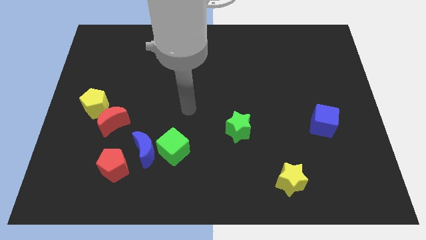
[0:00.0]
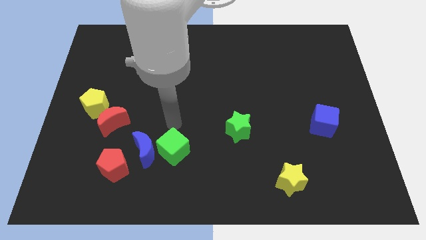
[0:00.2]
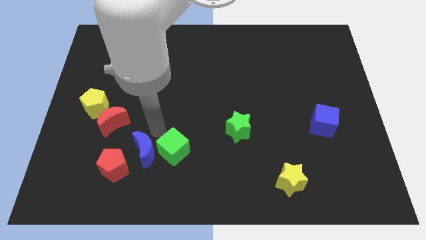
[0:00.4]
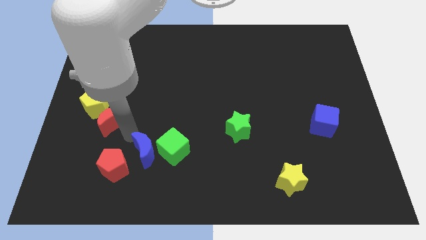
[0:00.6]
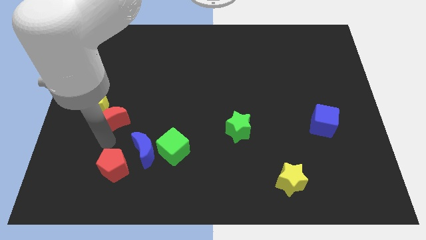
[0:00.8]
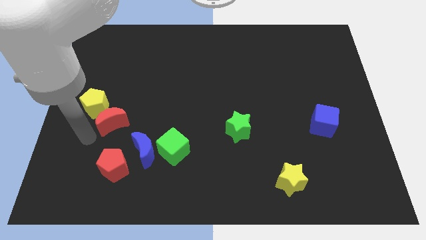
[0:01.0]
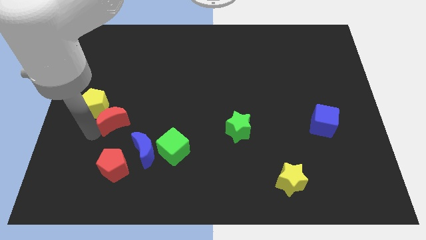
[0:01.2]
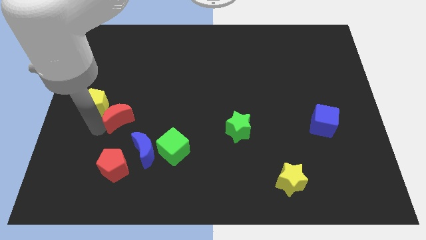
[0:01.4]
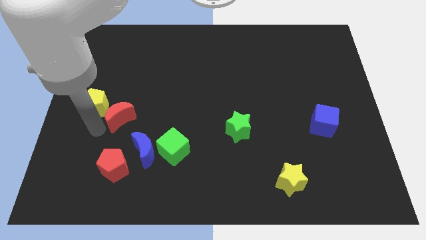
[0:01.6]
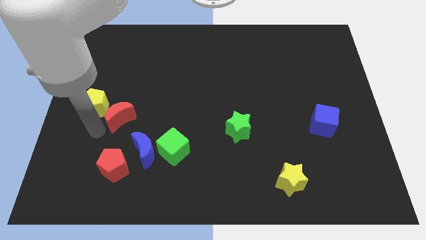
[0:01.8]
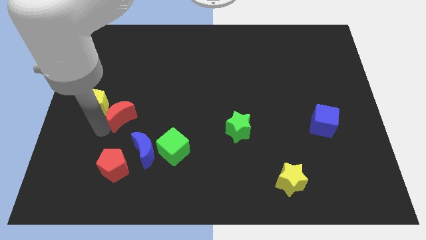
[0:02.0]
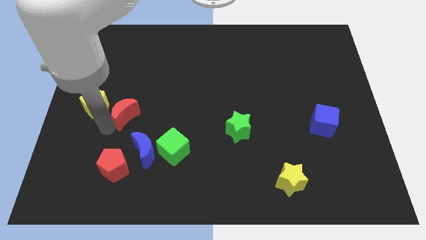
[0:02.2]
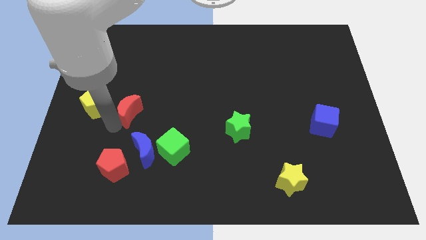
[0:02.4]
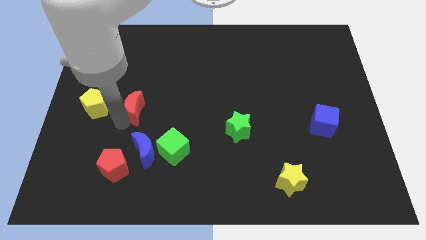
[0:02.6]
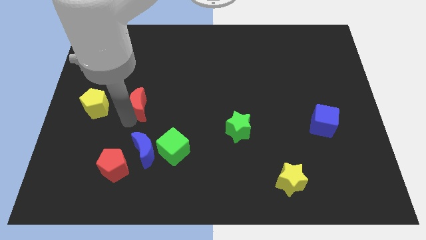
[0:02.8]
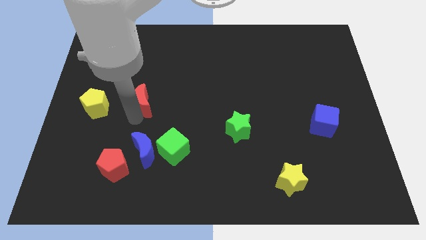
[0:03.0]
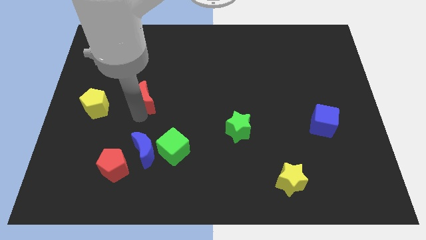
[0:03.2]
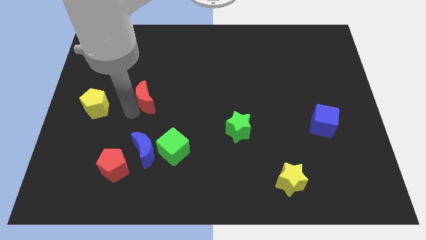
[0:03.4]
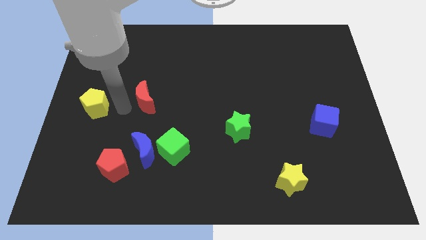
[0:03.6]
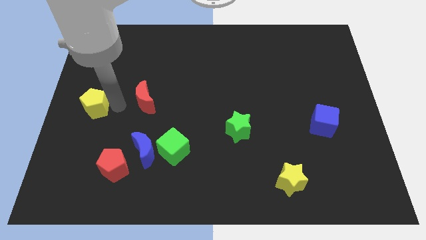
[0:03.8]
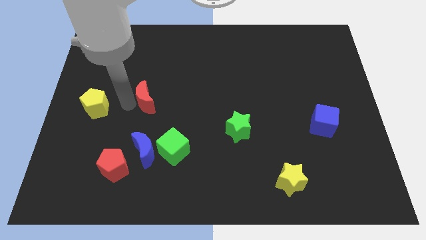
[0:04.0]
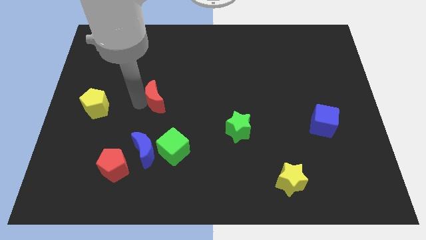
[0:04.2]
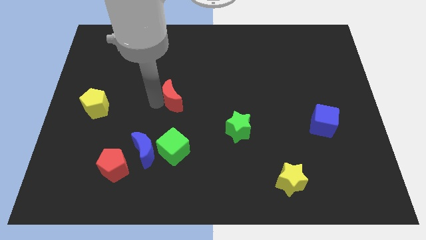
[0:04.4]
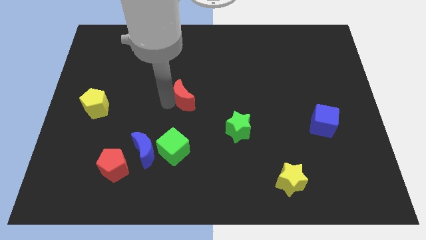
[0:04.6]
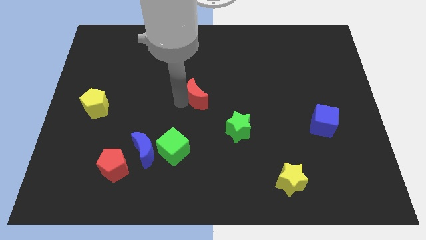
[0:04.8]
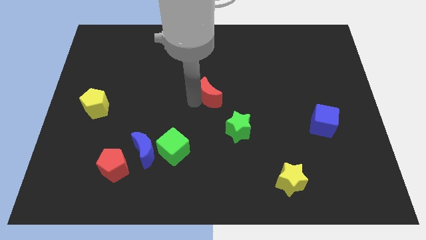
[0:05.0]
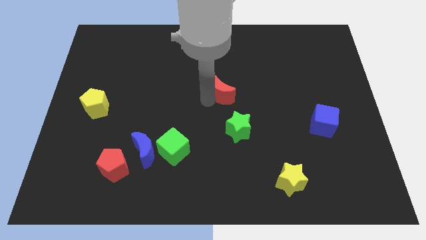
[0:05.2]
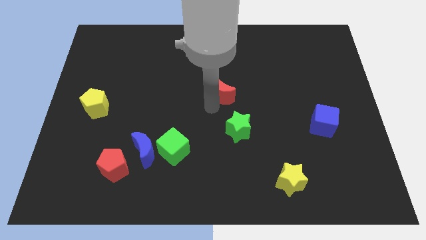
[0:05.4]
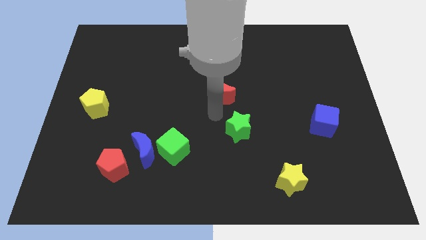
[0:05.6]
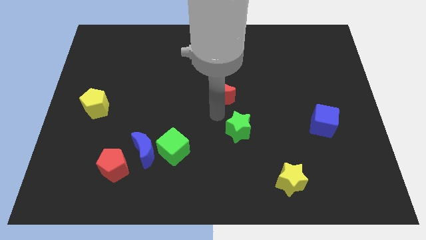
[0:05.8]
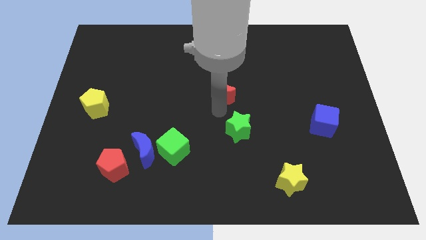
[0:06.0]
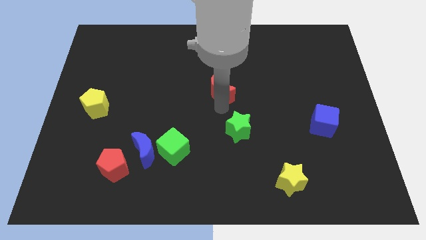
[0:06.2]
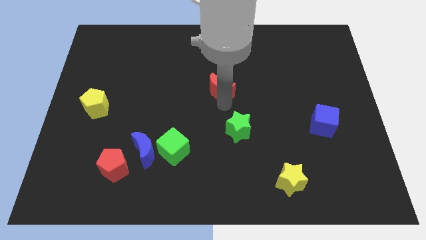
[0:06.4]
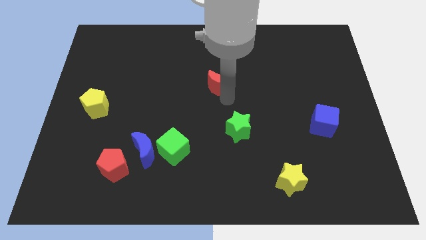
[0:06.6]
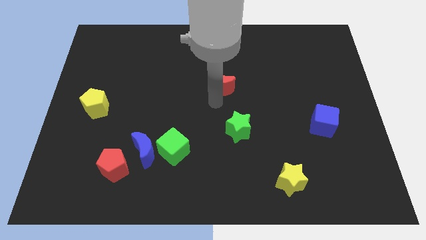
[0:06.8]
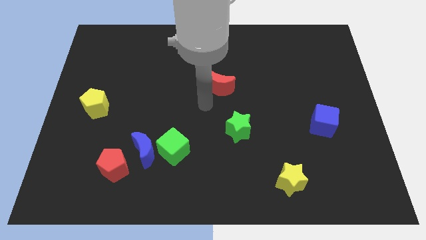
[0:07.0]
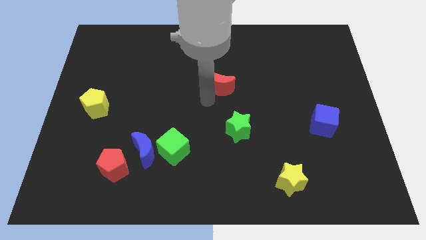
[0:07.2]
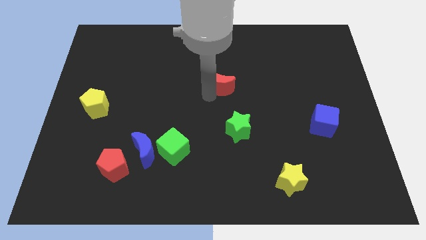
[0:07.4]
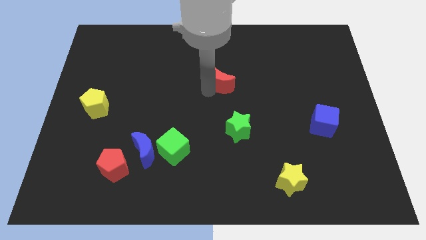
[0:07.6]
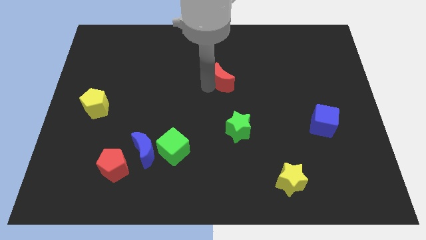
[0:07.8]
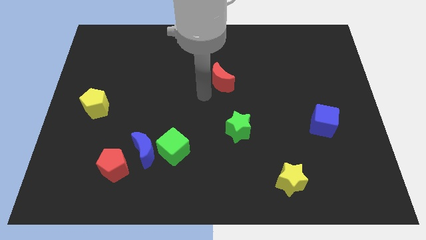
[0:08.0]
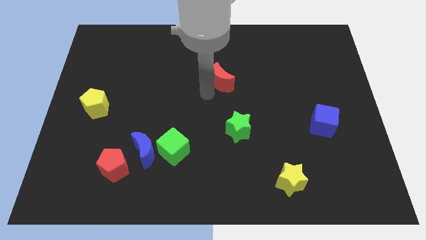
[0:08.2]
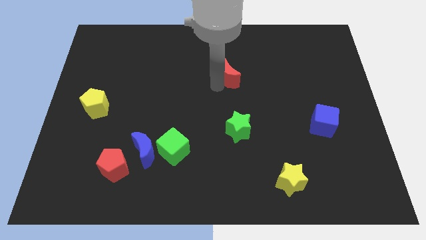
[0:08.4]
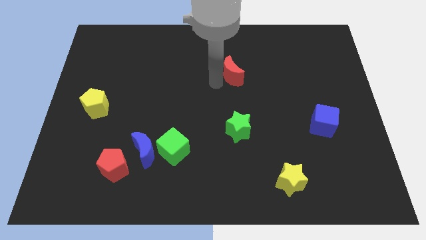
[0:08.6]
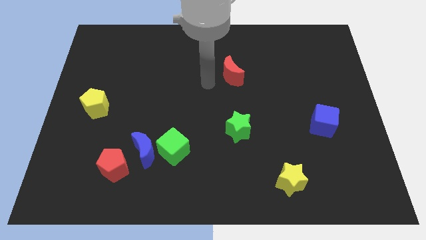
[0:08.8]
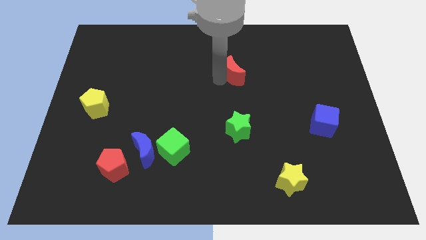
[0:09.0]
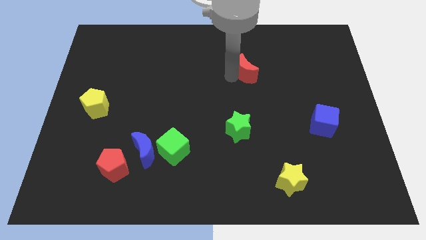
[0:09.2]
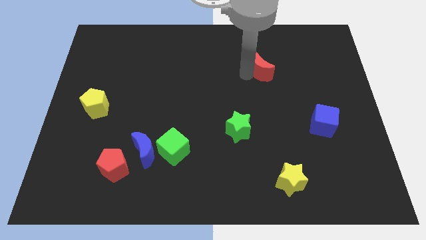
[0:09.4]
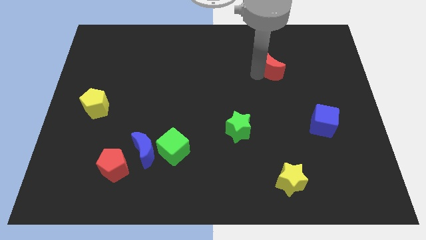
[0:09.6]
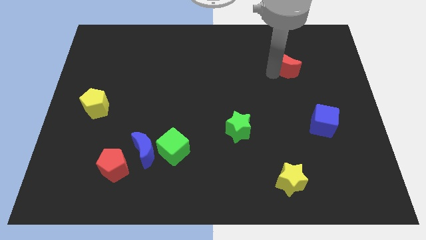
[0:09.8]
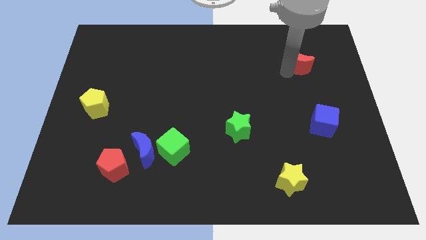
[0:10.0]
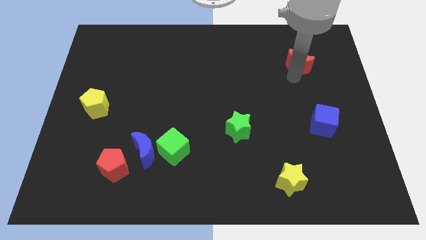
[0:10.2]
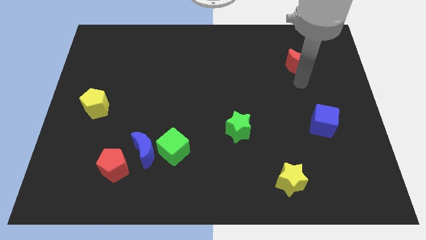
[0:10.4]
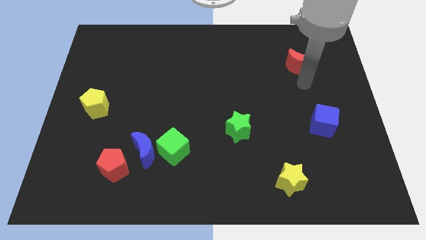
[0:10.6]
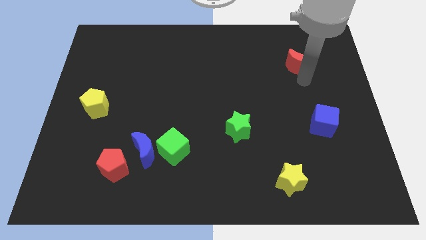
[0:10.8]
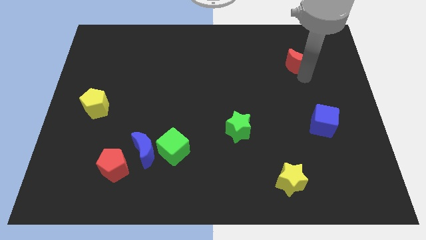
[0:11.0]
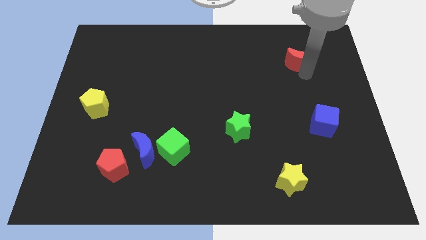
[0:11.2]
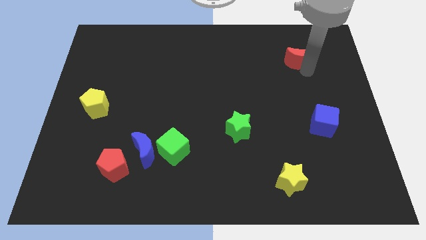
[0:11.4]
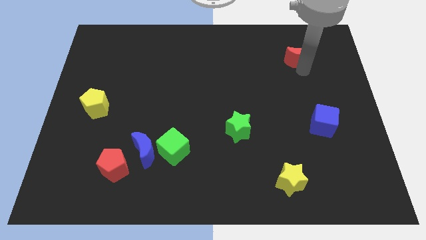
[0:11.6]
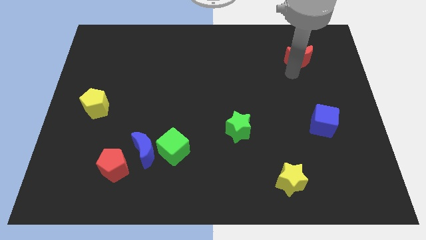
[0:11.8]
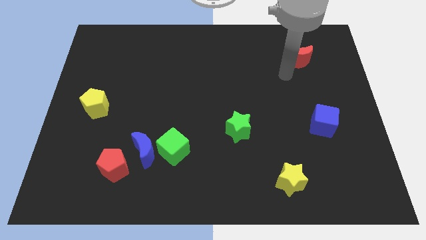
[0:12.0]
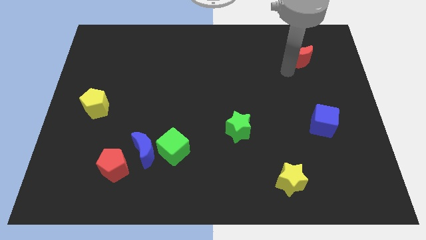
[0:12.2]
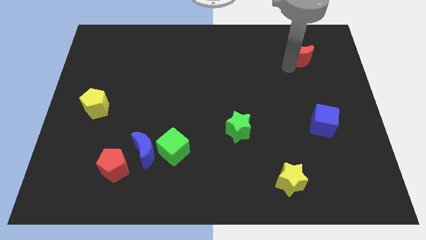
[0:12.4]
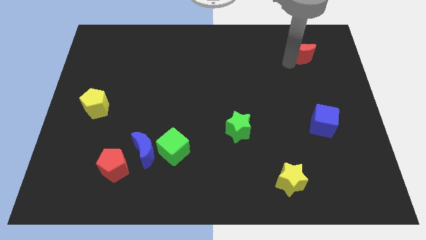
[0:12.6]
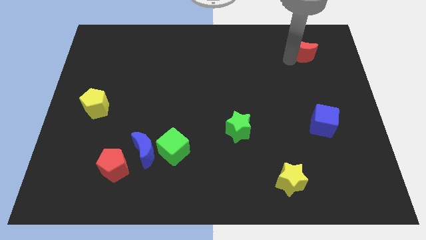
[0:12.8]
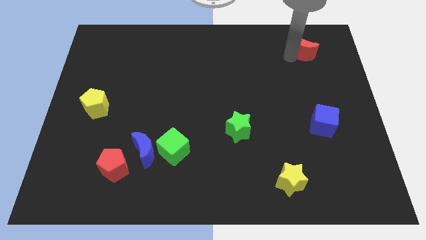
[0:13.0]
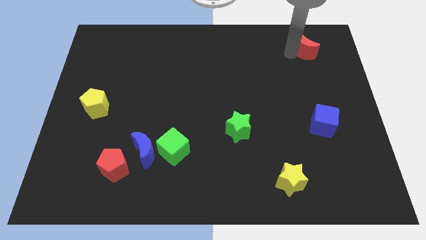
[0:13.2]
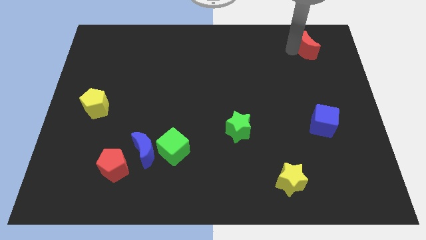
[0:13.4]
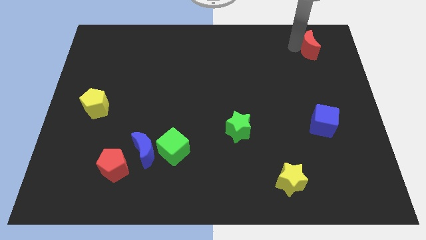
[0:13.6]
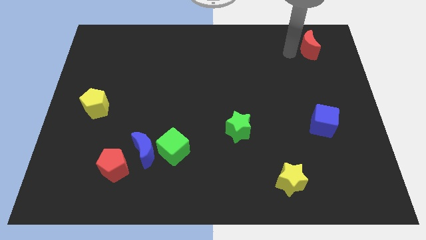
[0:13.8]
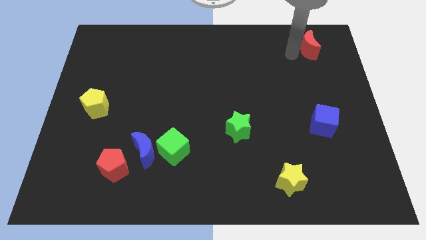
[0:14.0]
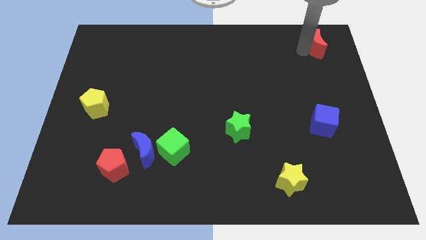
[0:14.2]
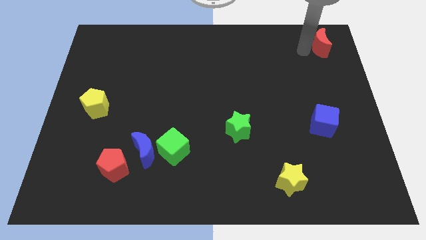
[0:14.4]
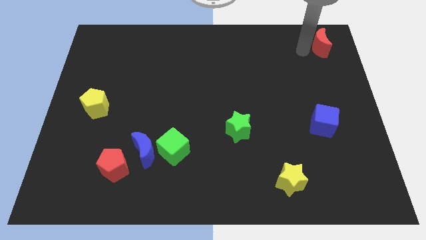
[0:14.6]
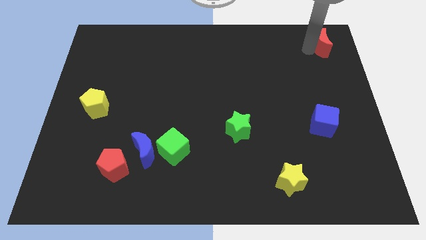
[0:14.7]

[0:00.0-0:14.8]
put the red moon to the top right of the board
